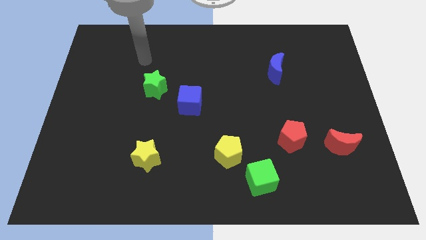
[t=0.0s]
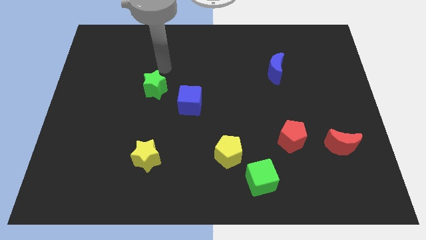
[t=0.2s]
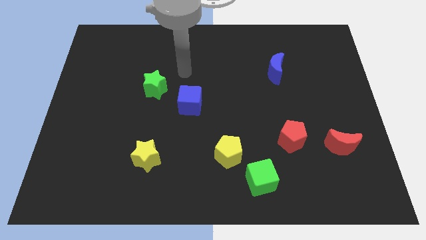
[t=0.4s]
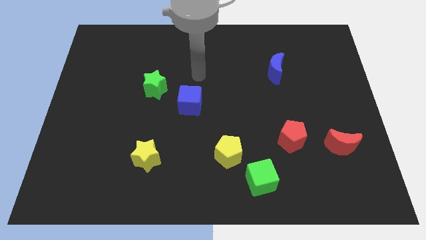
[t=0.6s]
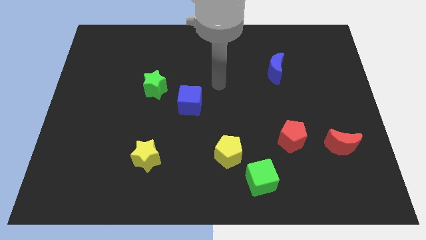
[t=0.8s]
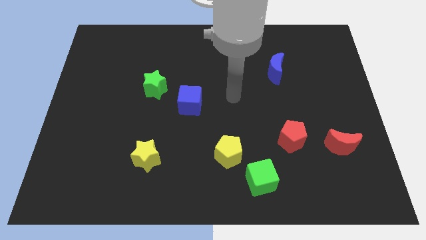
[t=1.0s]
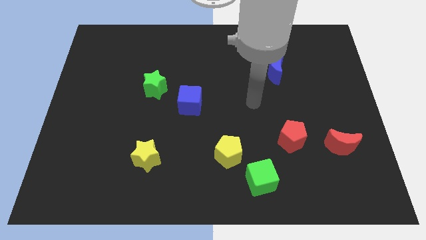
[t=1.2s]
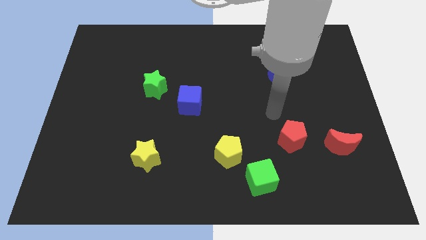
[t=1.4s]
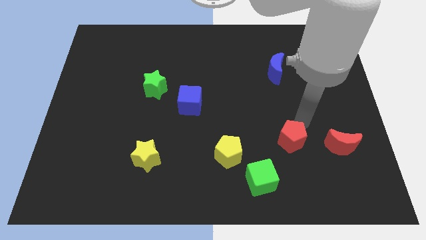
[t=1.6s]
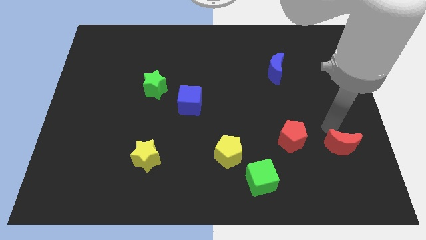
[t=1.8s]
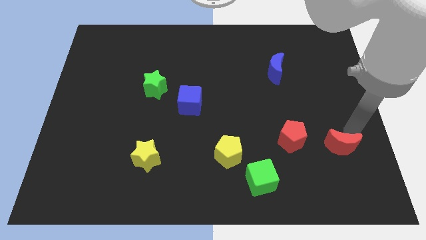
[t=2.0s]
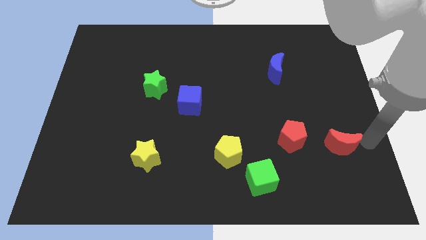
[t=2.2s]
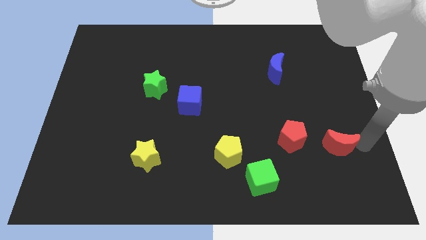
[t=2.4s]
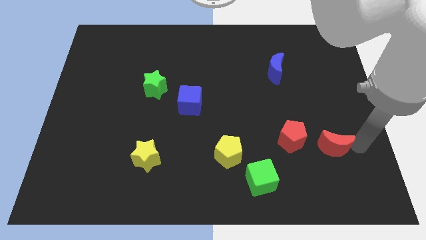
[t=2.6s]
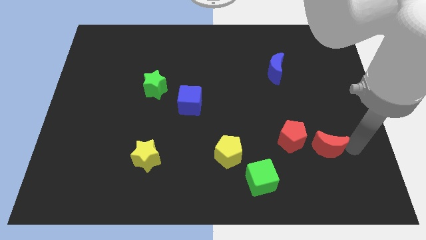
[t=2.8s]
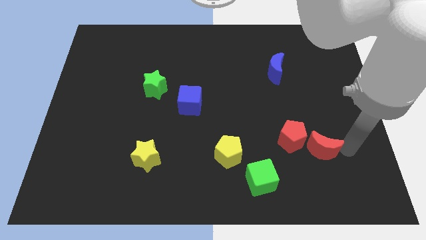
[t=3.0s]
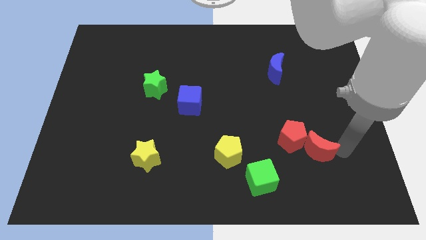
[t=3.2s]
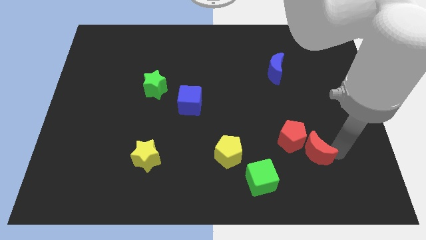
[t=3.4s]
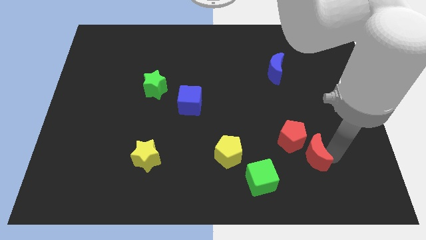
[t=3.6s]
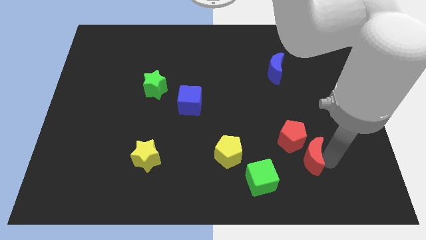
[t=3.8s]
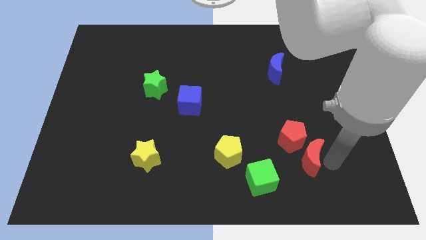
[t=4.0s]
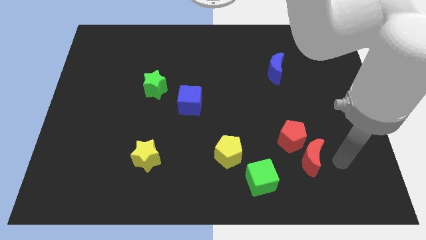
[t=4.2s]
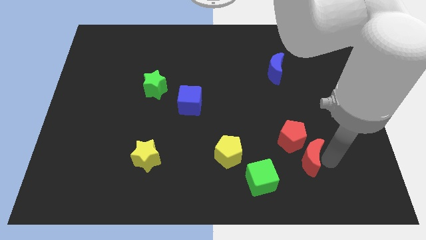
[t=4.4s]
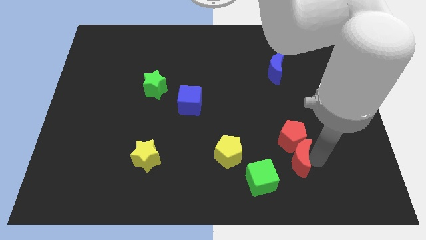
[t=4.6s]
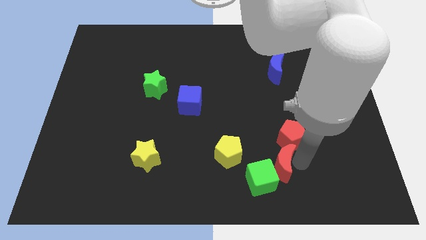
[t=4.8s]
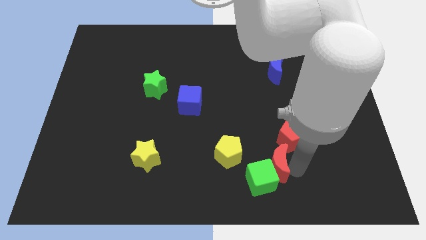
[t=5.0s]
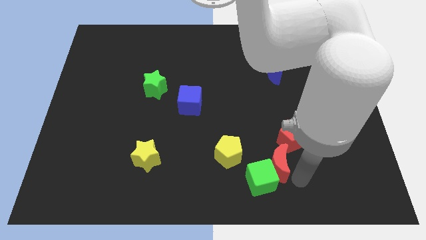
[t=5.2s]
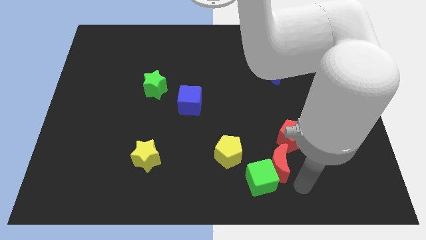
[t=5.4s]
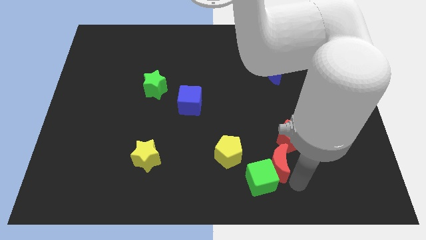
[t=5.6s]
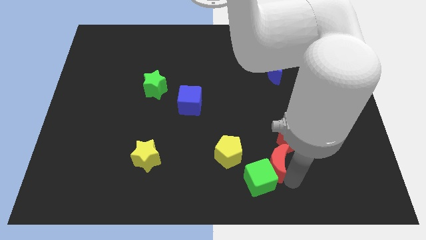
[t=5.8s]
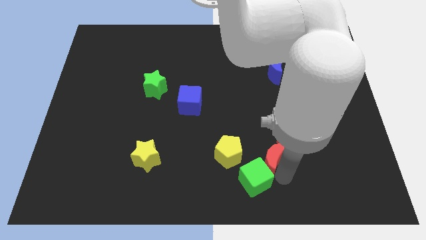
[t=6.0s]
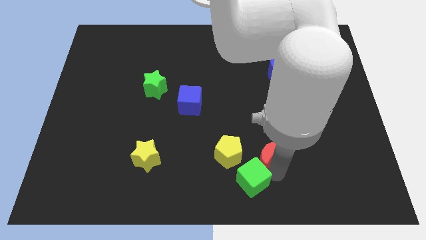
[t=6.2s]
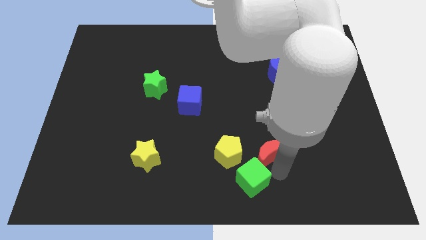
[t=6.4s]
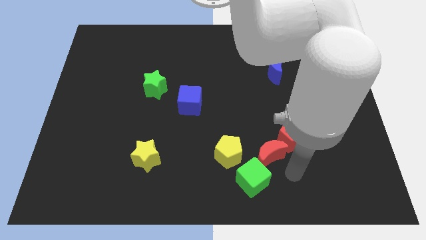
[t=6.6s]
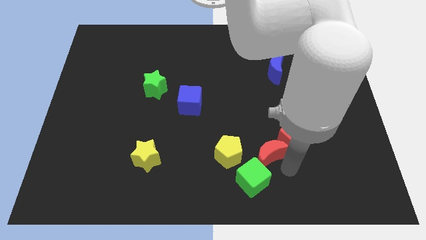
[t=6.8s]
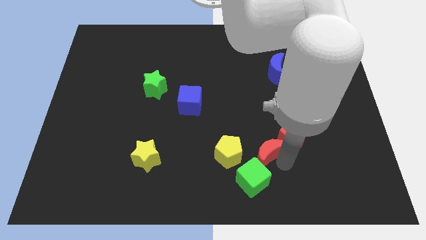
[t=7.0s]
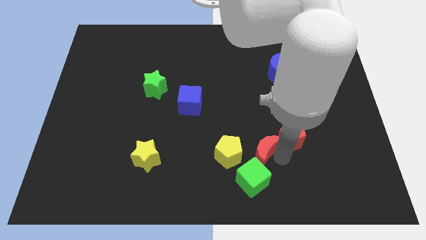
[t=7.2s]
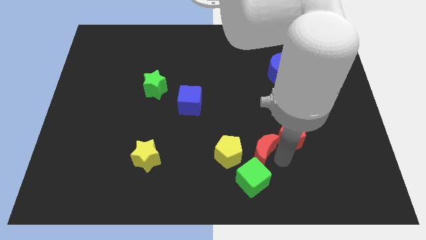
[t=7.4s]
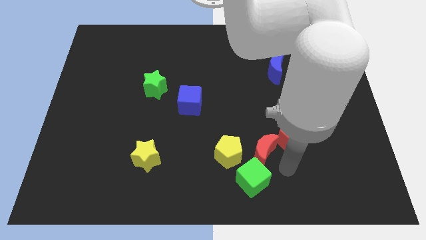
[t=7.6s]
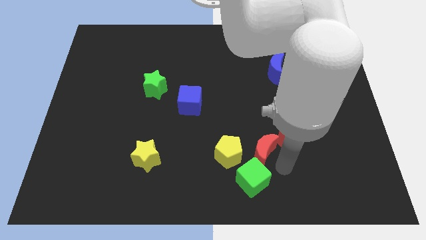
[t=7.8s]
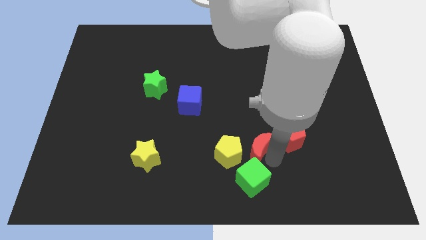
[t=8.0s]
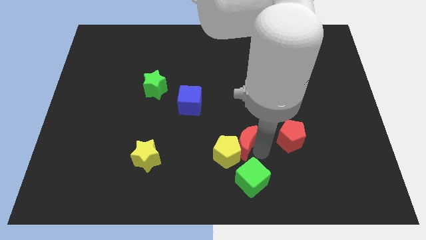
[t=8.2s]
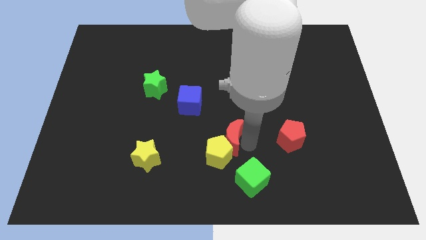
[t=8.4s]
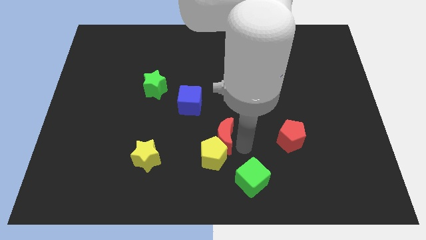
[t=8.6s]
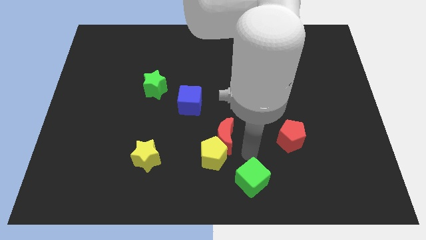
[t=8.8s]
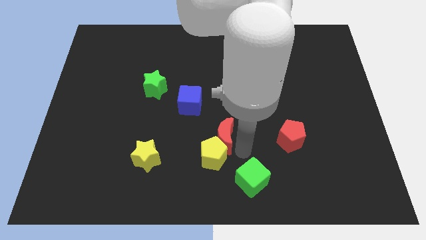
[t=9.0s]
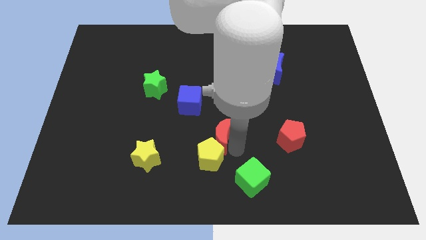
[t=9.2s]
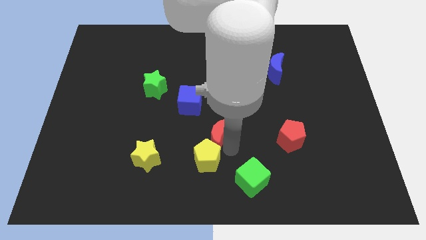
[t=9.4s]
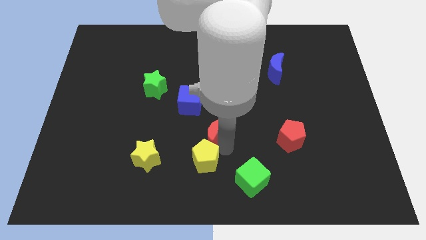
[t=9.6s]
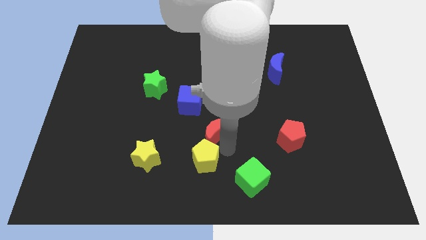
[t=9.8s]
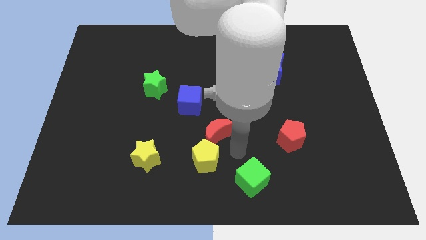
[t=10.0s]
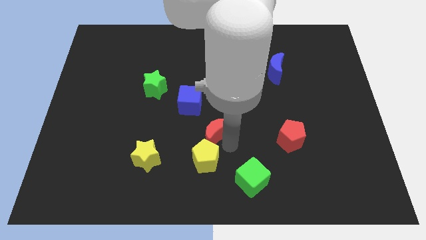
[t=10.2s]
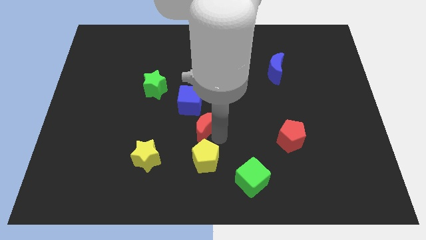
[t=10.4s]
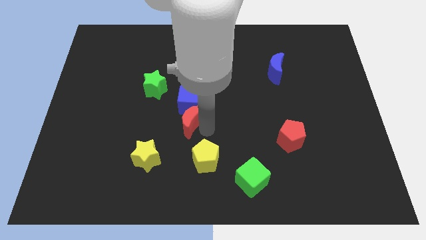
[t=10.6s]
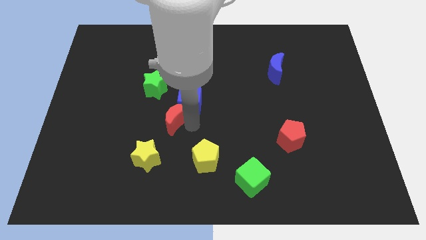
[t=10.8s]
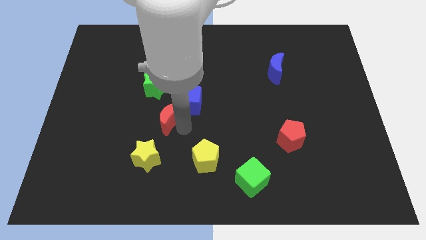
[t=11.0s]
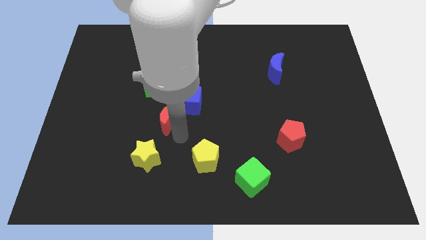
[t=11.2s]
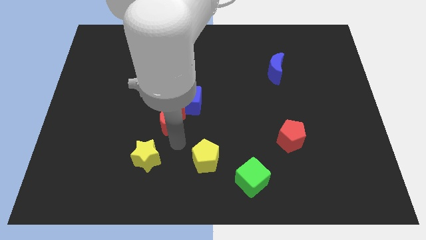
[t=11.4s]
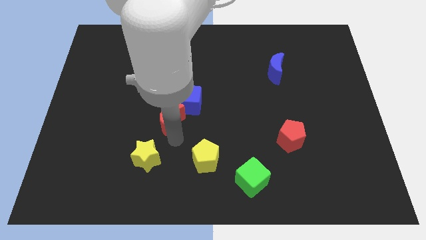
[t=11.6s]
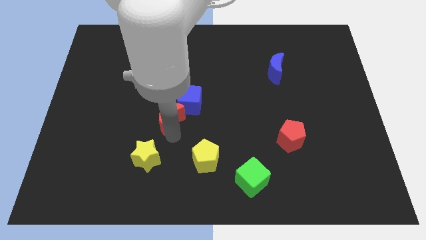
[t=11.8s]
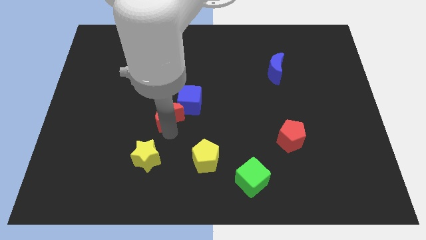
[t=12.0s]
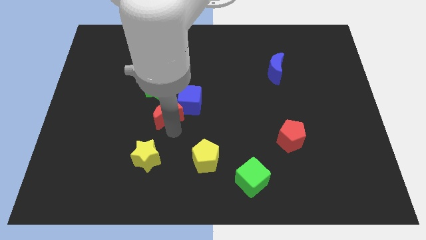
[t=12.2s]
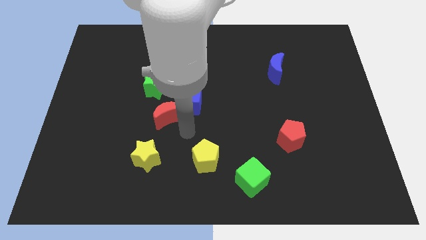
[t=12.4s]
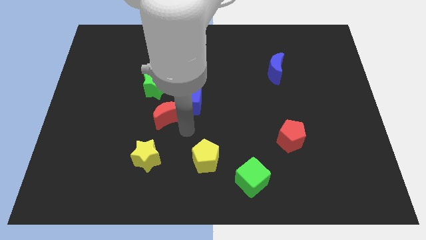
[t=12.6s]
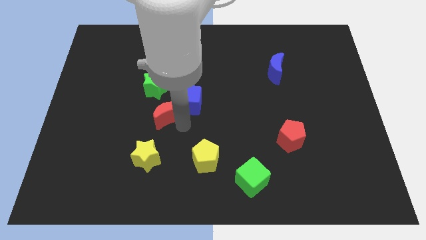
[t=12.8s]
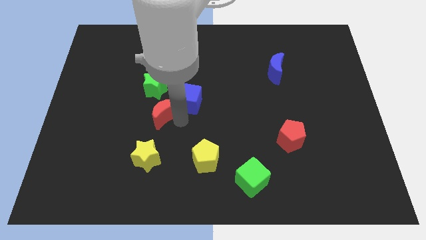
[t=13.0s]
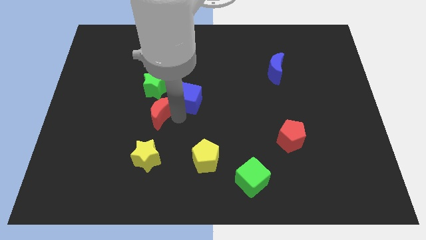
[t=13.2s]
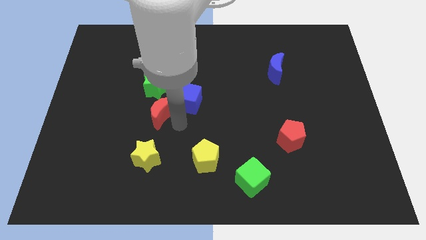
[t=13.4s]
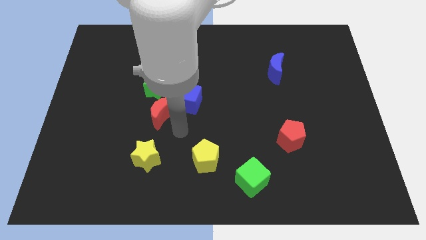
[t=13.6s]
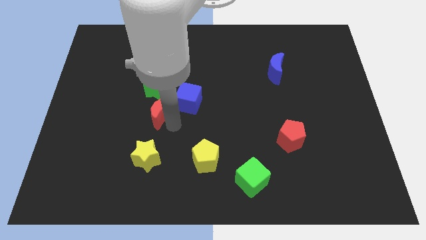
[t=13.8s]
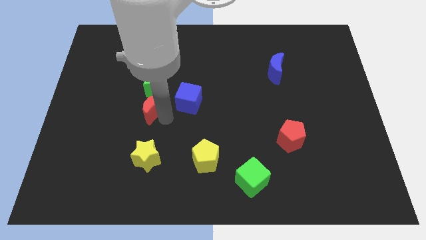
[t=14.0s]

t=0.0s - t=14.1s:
put the red moon diagonally down and to the left of the green star

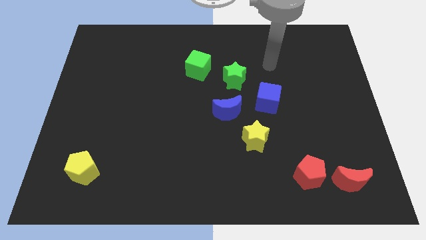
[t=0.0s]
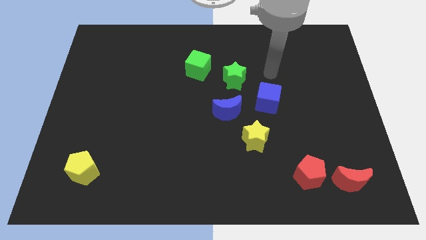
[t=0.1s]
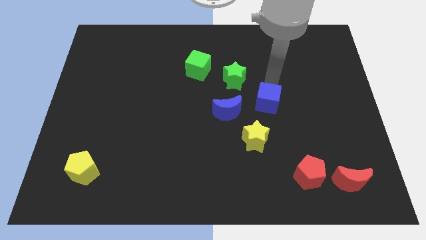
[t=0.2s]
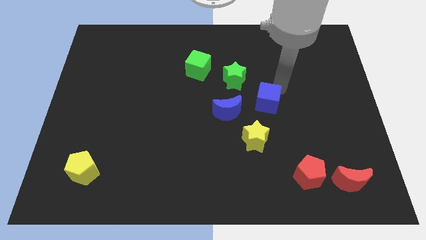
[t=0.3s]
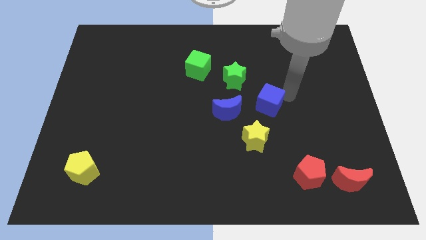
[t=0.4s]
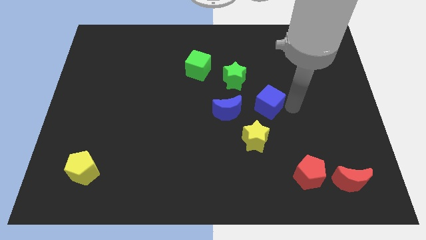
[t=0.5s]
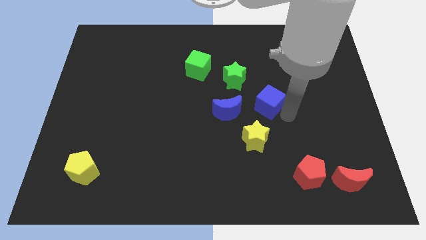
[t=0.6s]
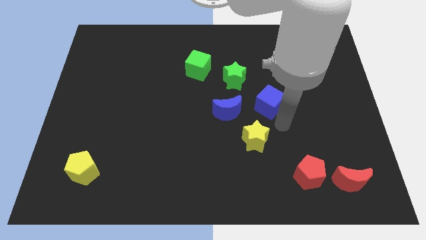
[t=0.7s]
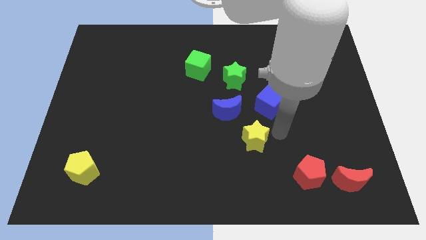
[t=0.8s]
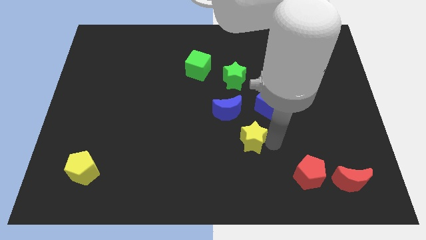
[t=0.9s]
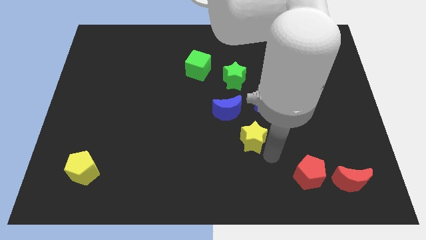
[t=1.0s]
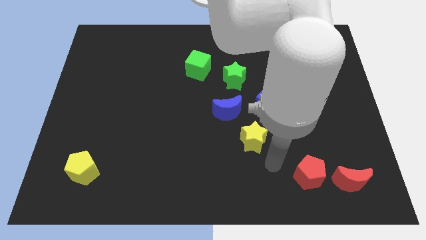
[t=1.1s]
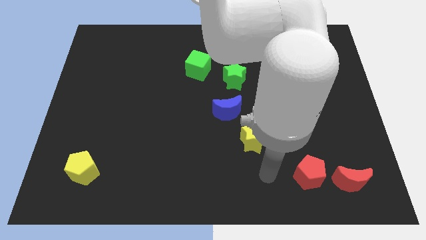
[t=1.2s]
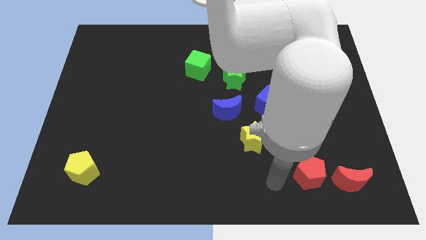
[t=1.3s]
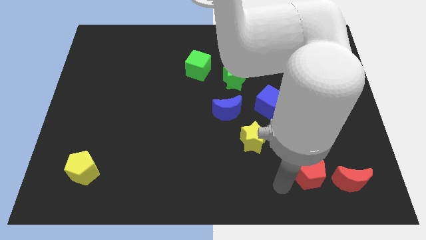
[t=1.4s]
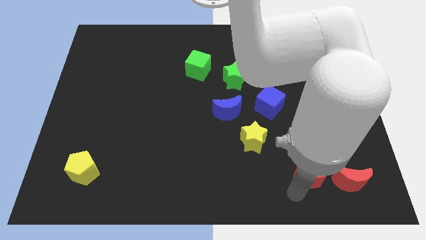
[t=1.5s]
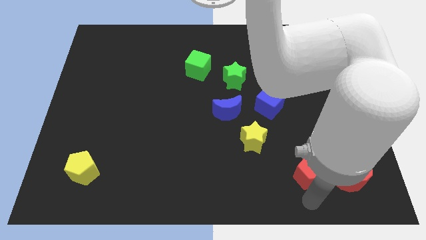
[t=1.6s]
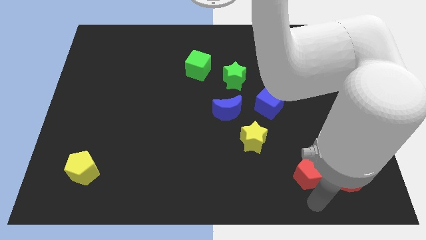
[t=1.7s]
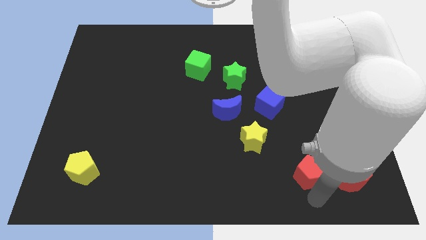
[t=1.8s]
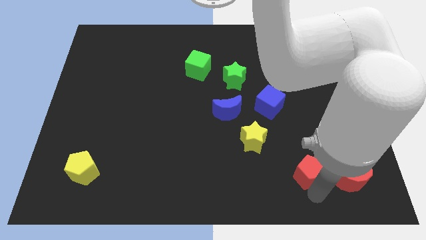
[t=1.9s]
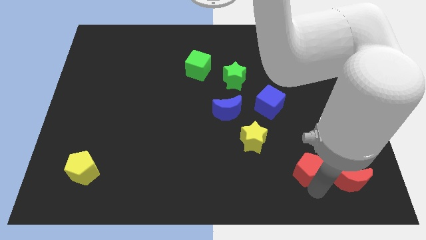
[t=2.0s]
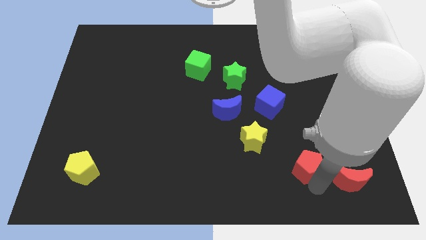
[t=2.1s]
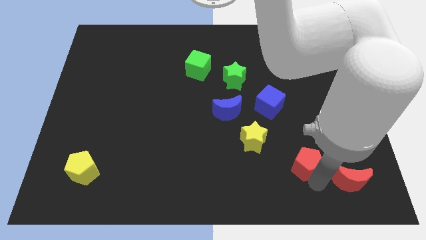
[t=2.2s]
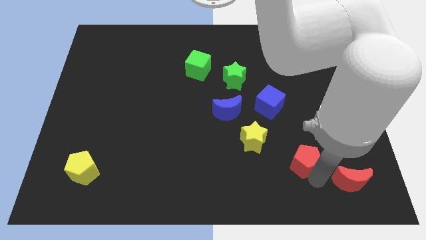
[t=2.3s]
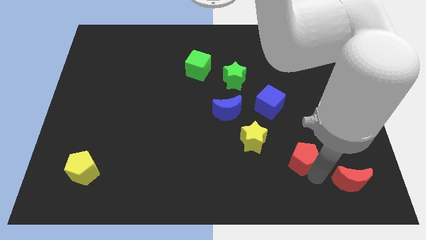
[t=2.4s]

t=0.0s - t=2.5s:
move the red pentagon to the right of the yellow star
